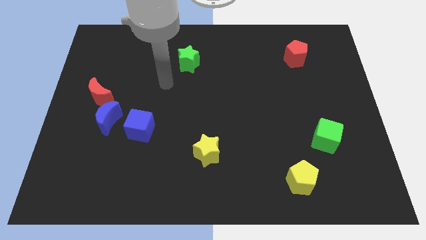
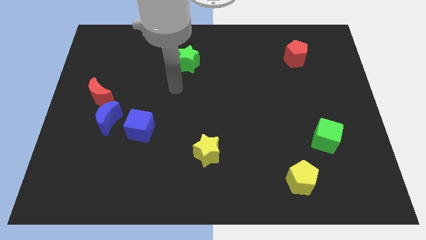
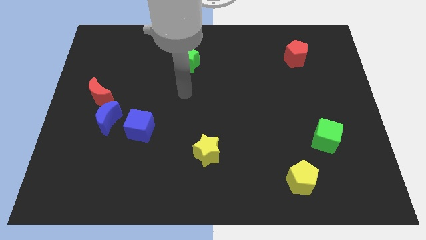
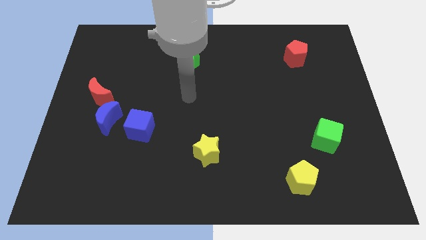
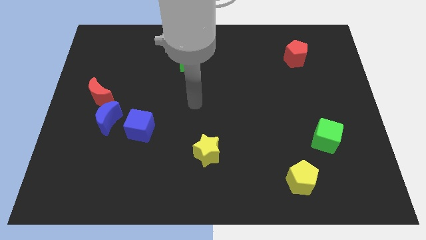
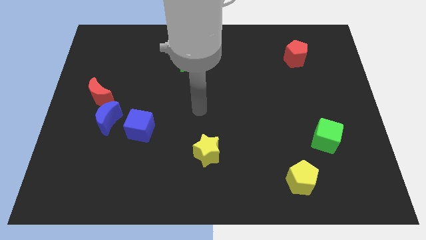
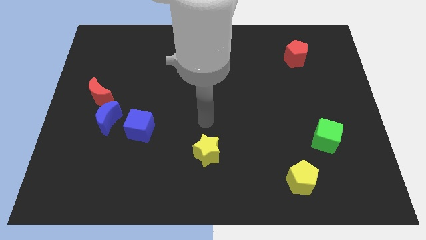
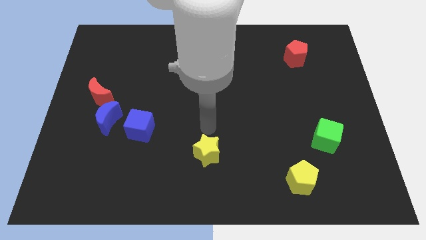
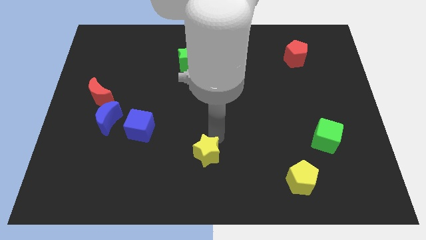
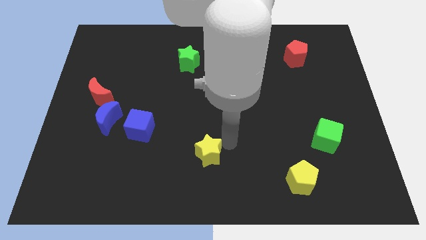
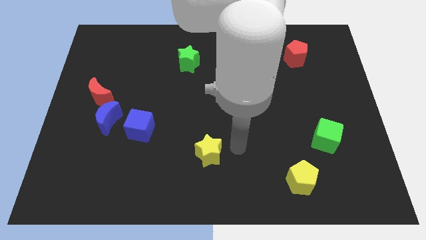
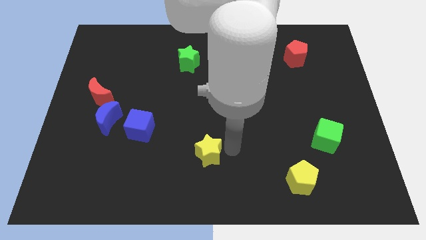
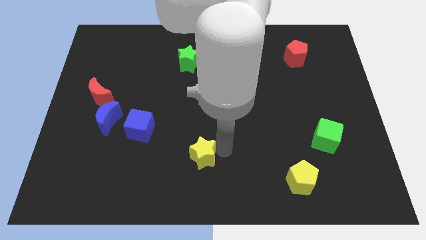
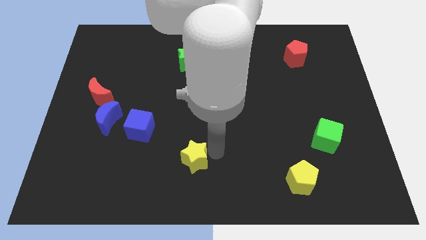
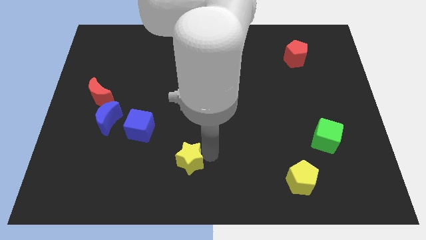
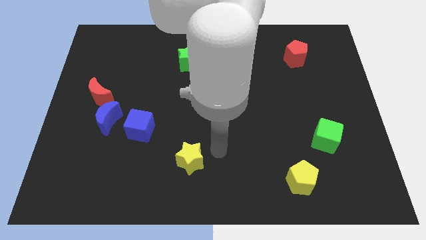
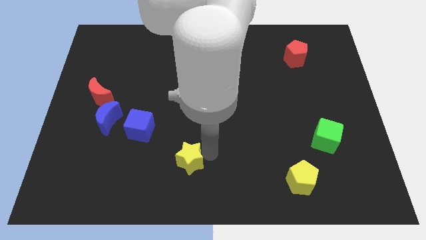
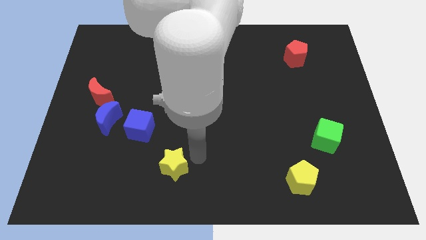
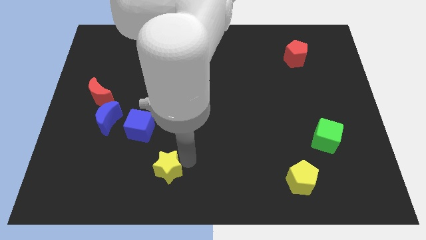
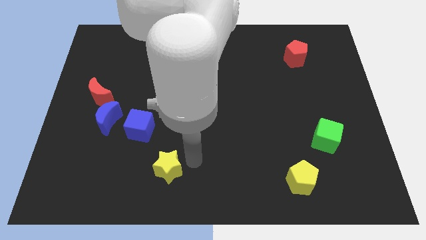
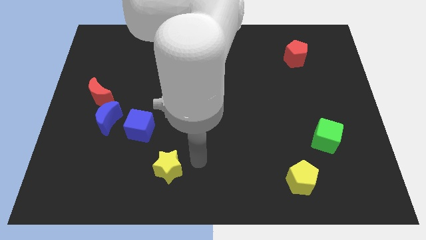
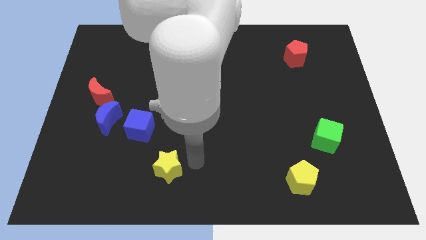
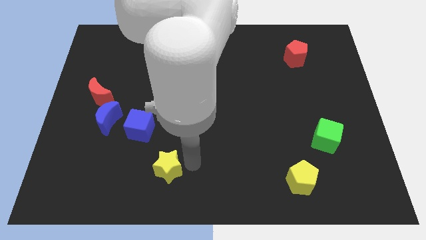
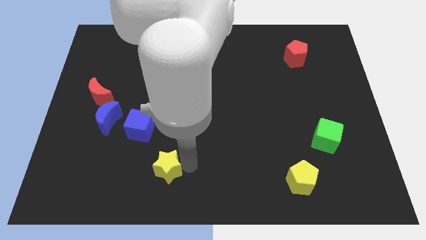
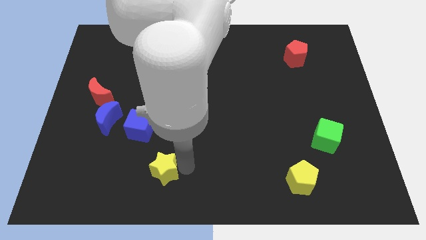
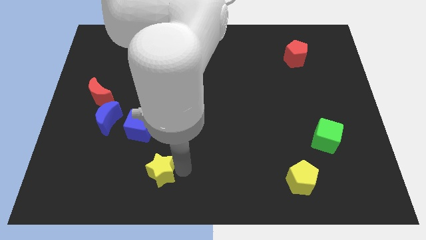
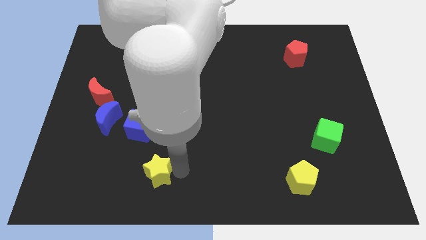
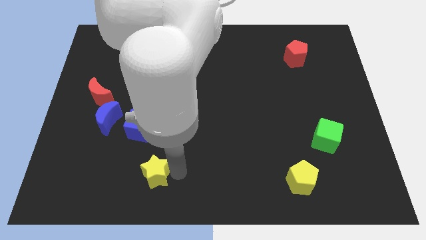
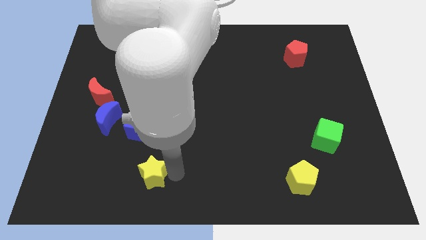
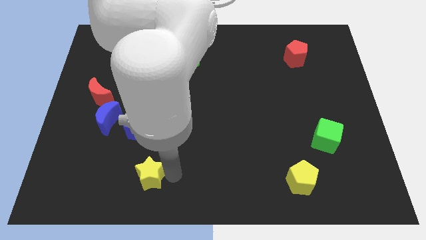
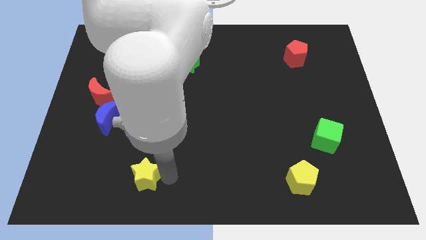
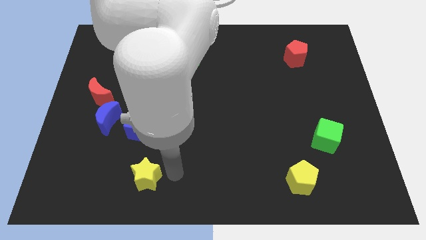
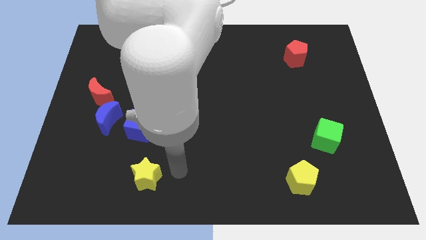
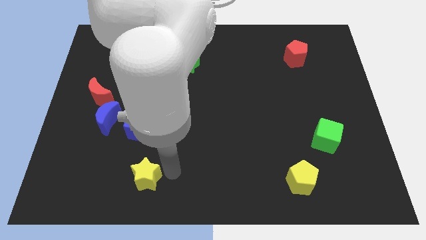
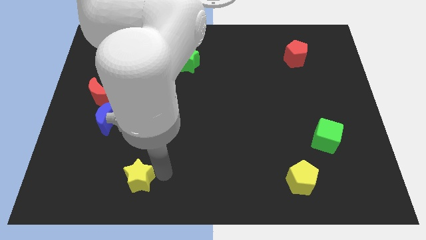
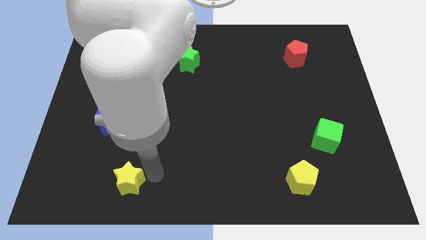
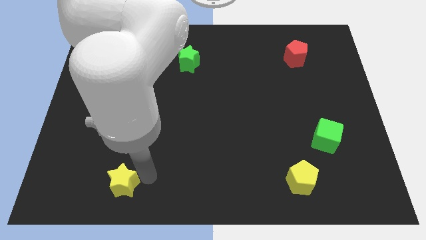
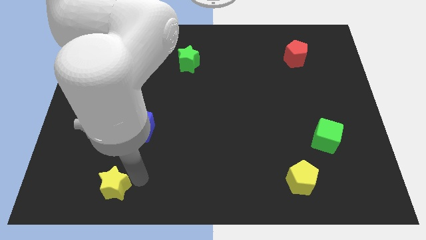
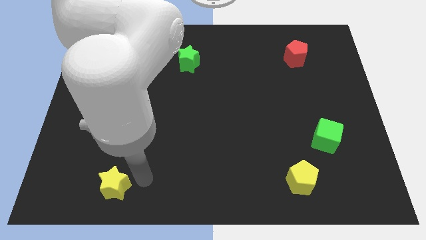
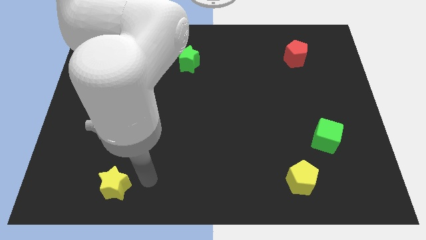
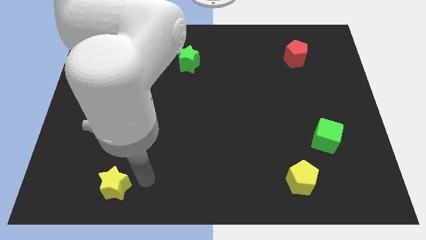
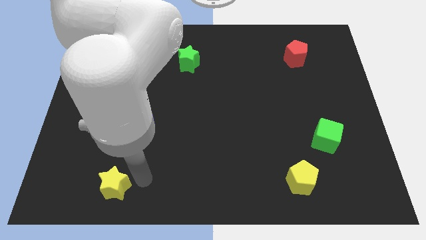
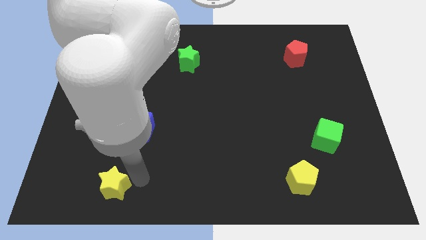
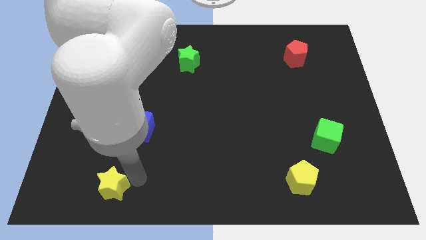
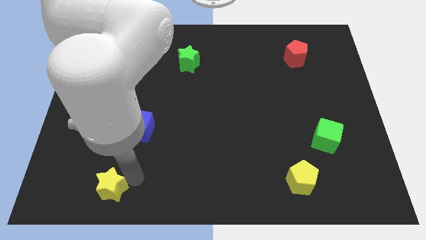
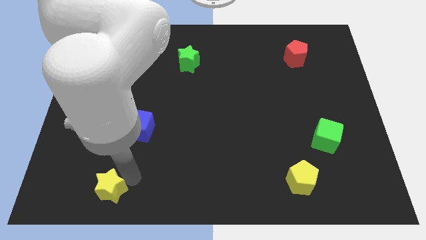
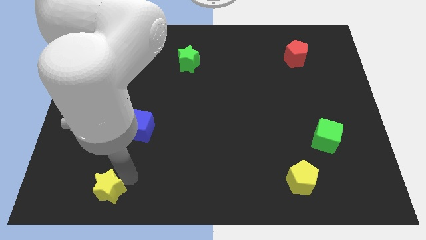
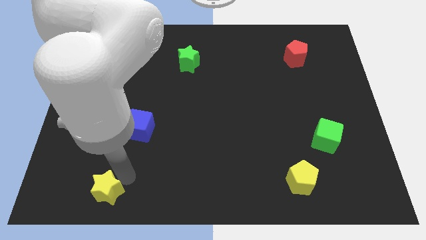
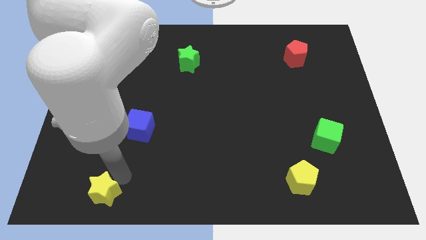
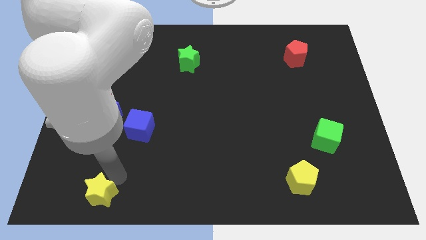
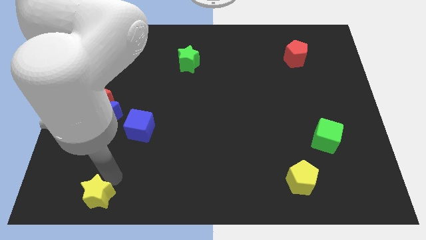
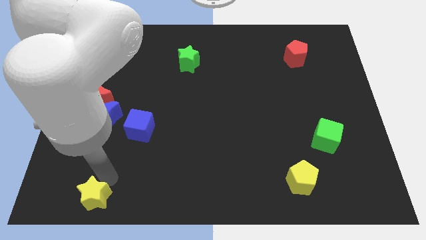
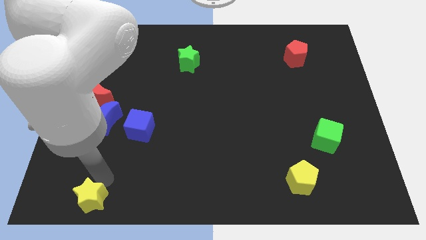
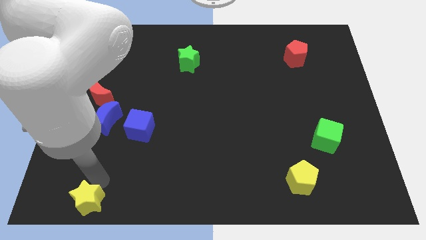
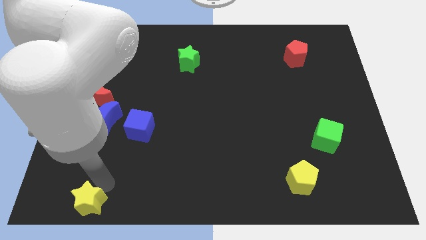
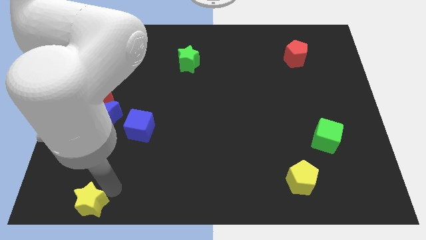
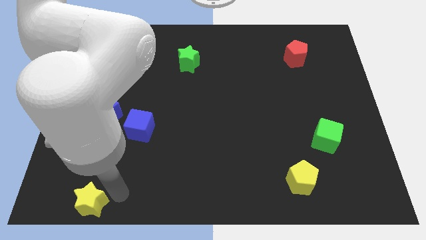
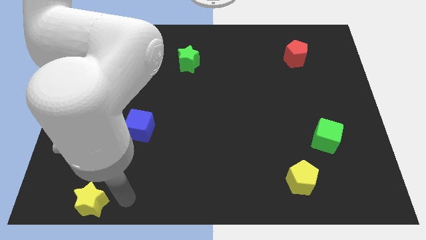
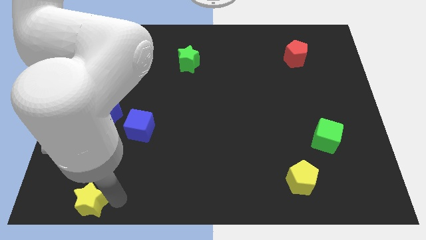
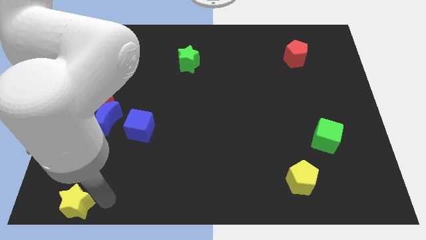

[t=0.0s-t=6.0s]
slide the yellow star to the bottom left

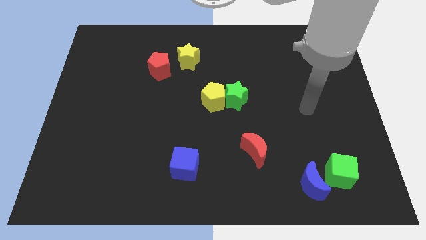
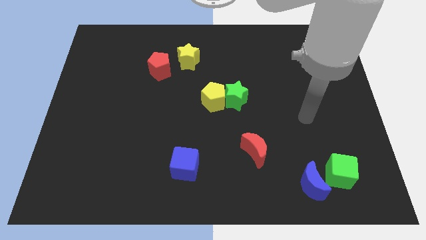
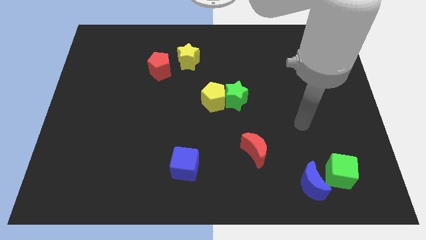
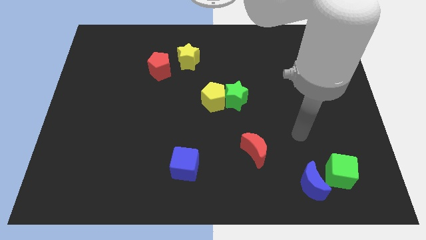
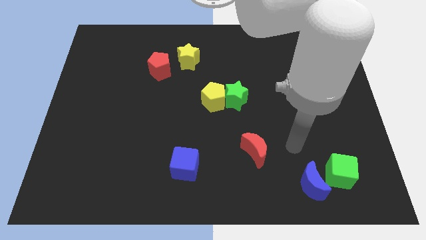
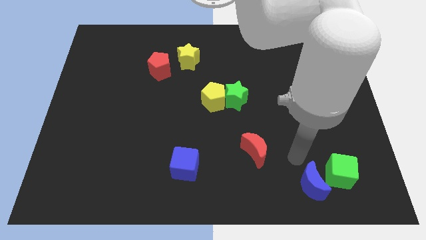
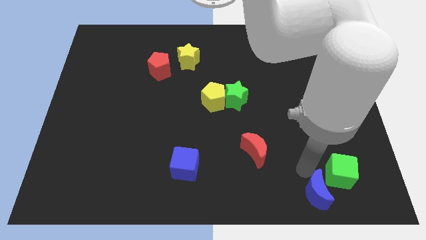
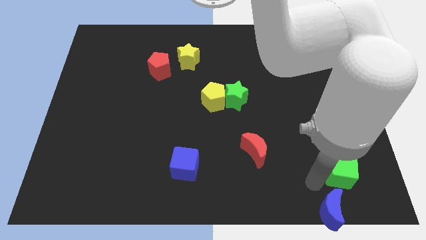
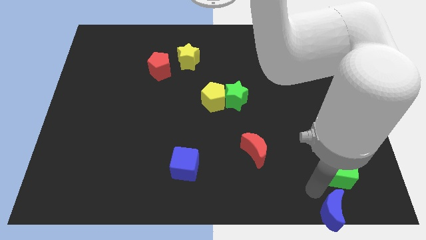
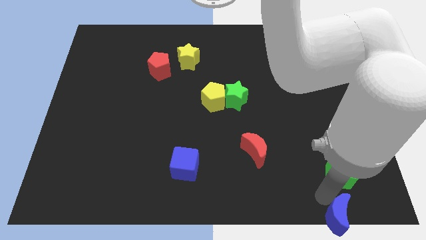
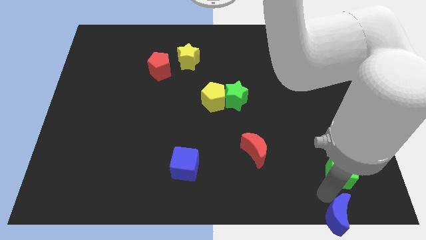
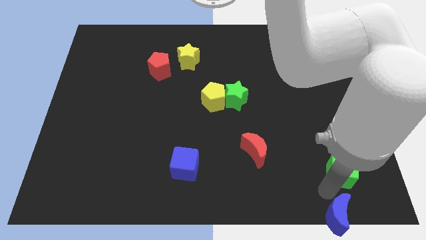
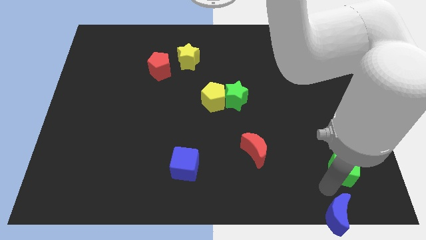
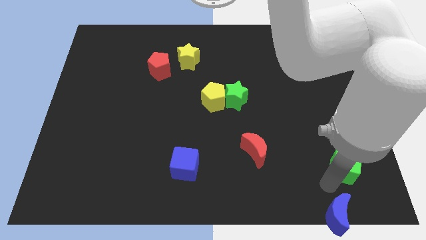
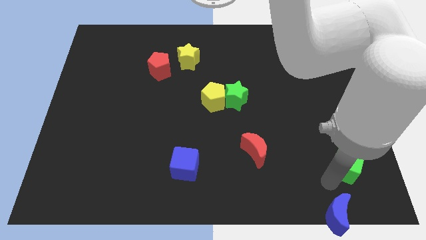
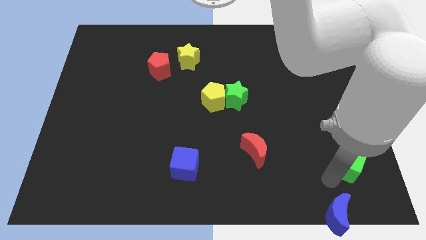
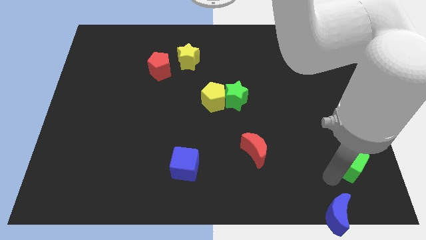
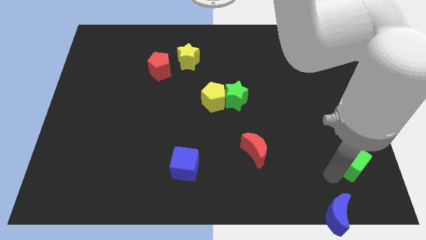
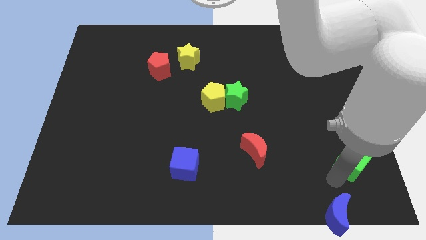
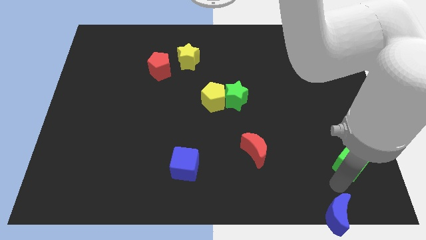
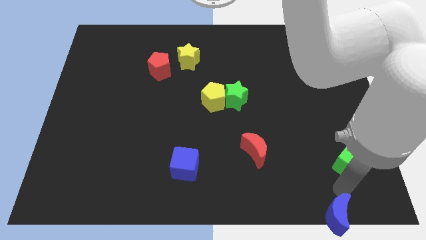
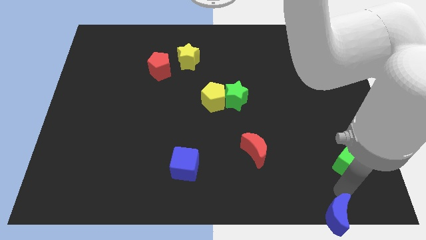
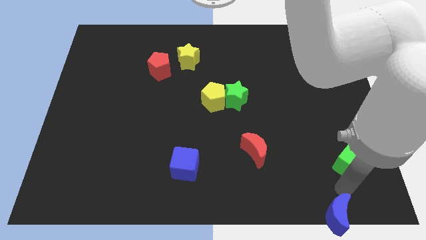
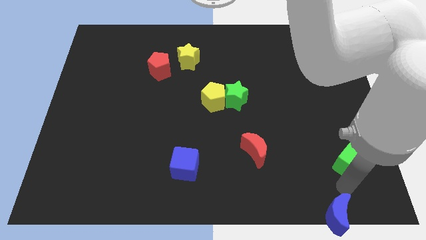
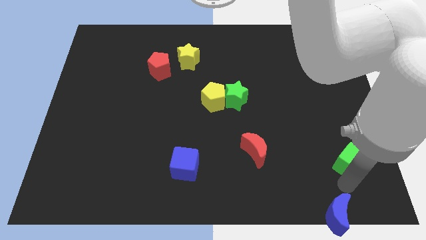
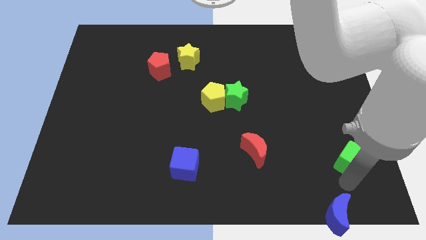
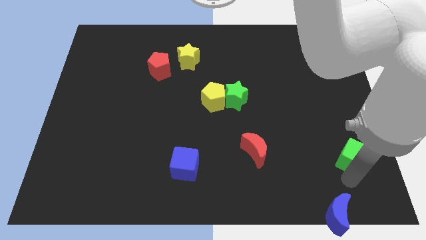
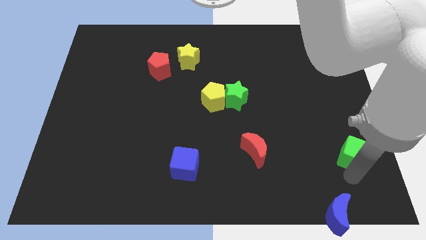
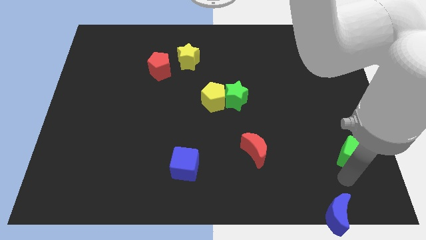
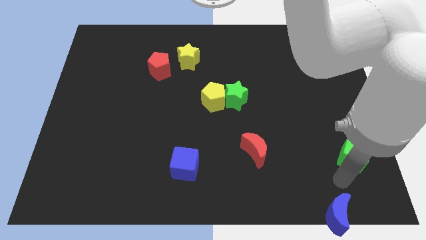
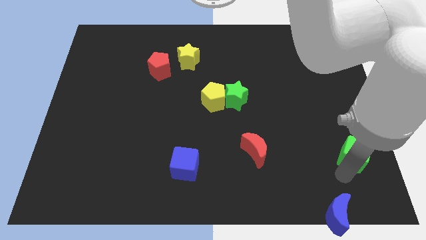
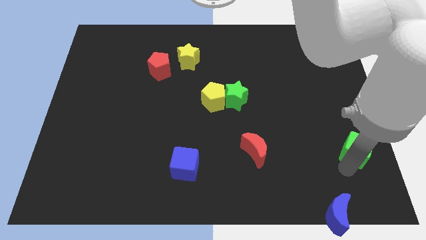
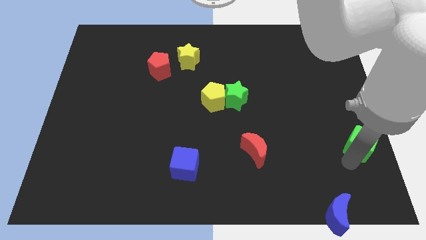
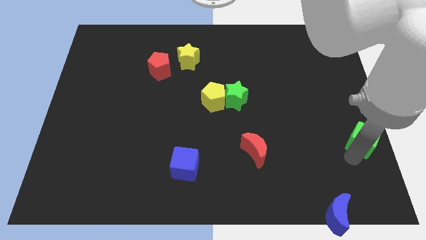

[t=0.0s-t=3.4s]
put the green cube to the right side of the board
